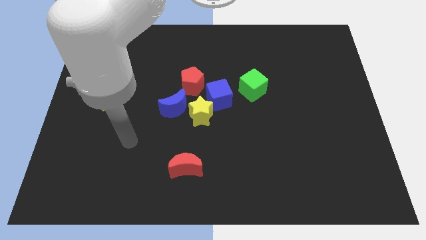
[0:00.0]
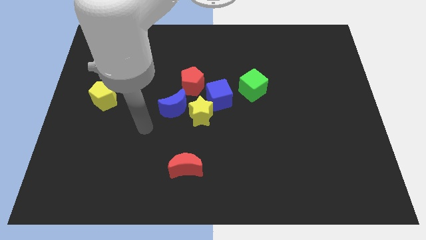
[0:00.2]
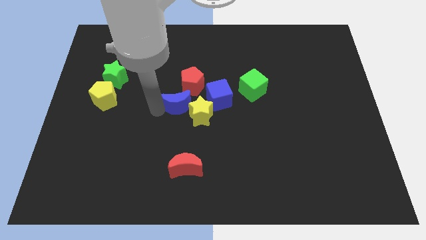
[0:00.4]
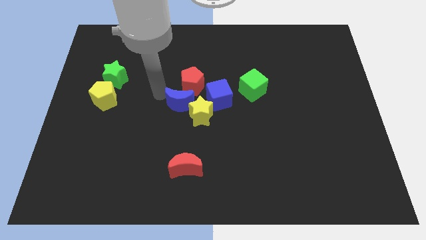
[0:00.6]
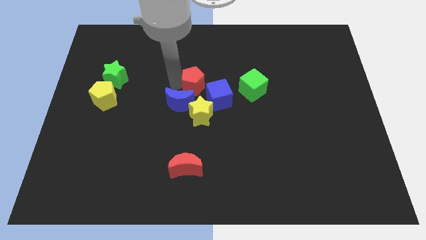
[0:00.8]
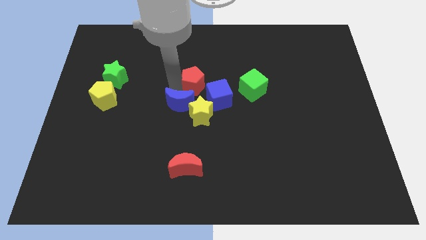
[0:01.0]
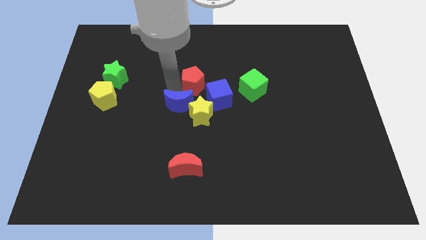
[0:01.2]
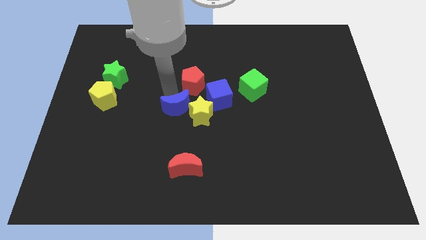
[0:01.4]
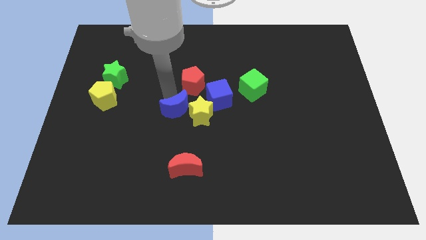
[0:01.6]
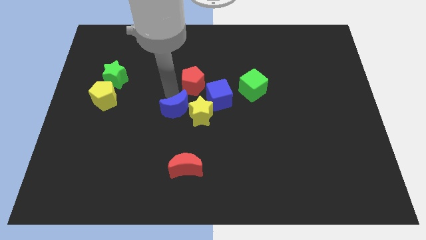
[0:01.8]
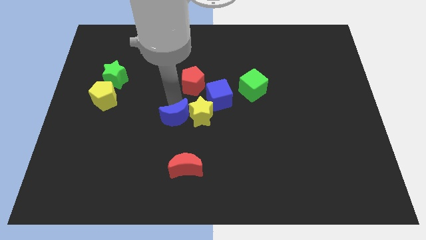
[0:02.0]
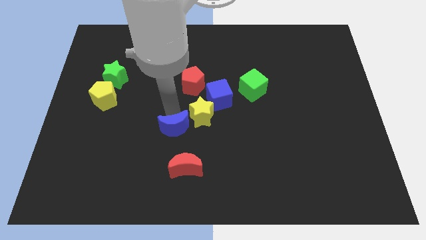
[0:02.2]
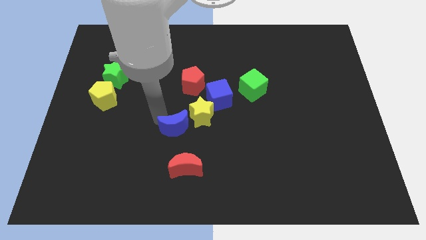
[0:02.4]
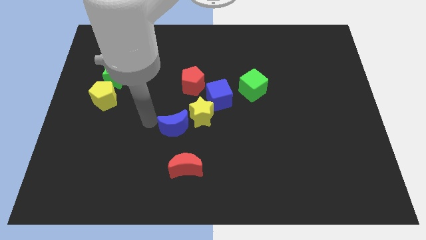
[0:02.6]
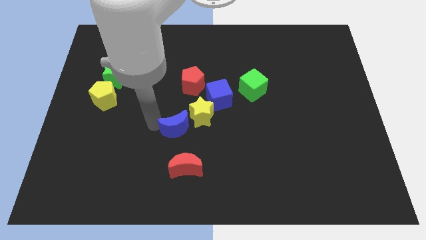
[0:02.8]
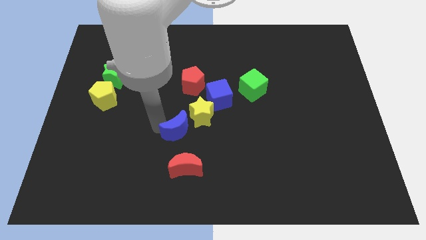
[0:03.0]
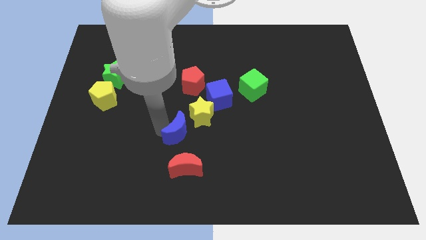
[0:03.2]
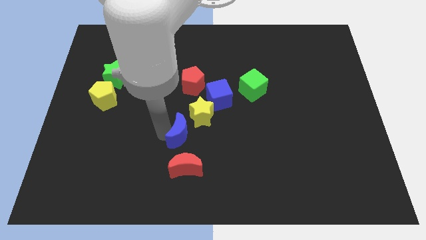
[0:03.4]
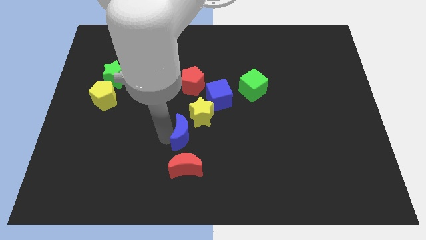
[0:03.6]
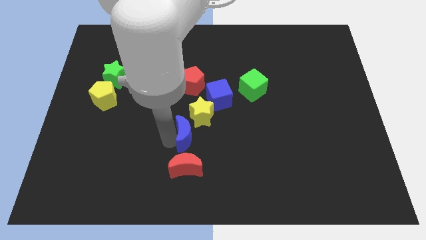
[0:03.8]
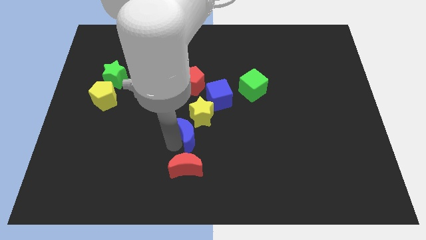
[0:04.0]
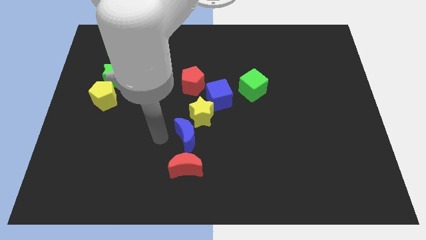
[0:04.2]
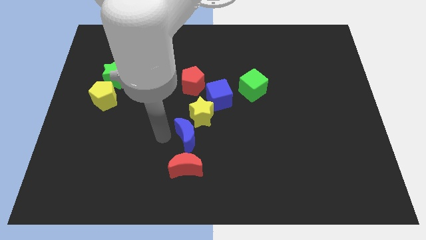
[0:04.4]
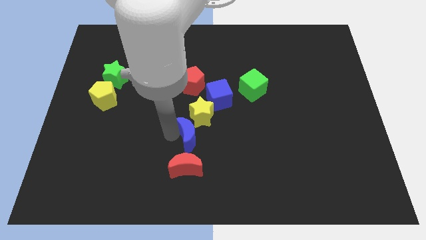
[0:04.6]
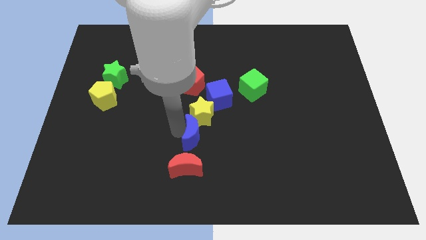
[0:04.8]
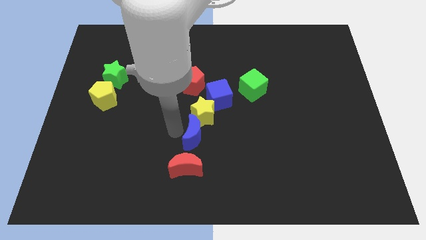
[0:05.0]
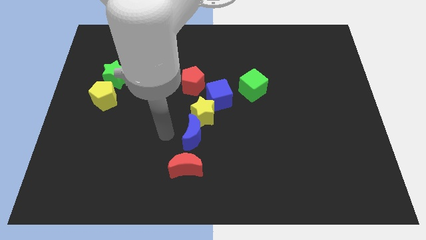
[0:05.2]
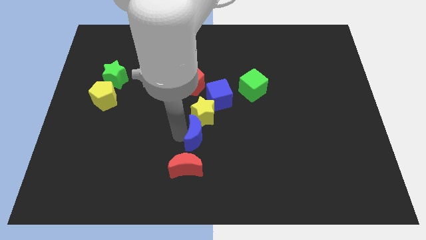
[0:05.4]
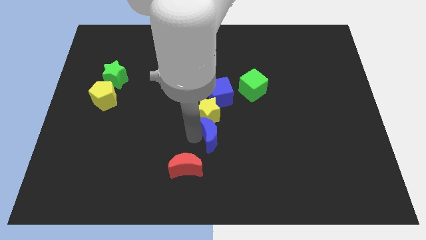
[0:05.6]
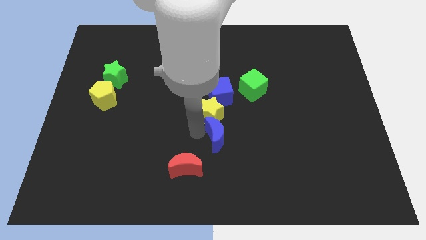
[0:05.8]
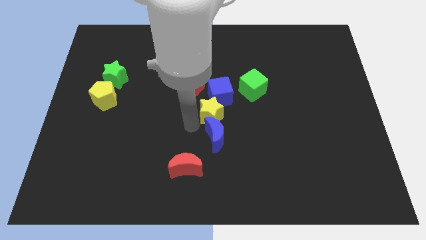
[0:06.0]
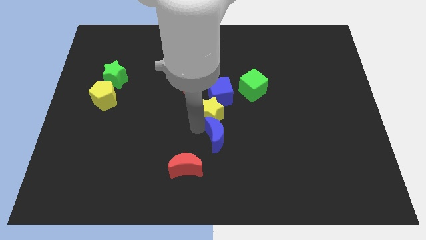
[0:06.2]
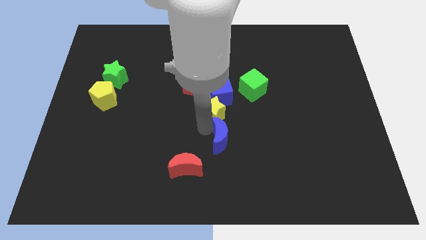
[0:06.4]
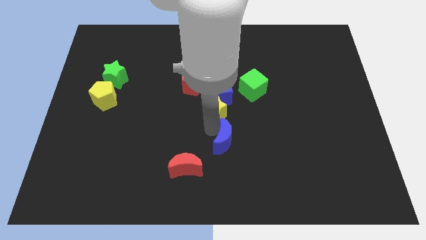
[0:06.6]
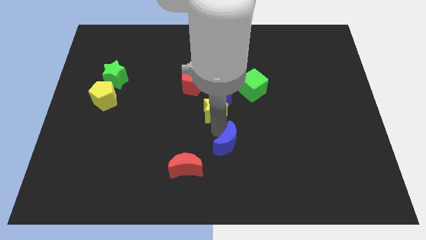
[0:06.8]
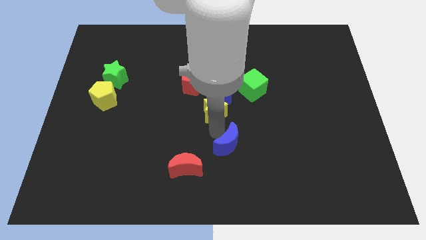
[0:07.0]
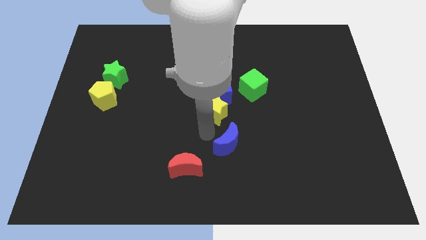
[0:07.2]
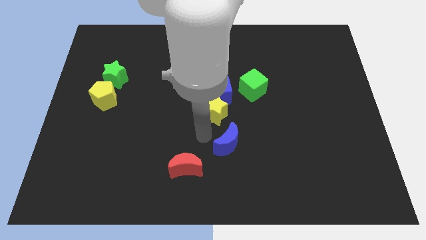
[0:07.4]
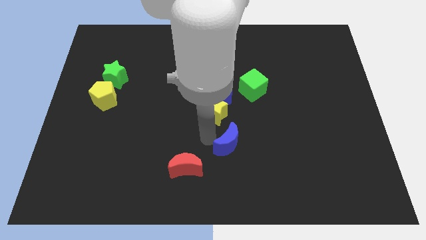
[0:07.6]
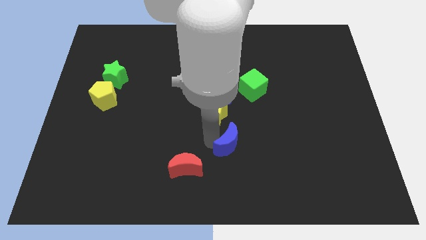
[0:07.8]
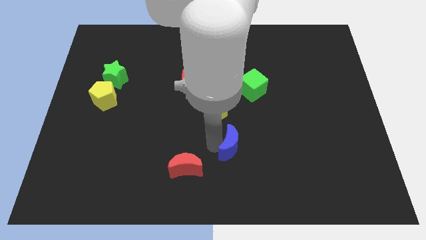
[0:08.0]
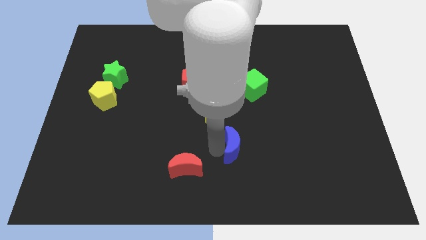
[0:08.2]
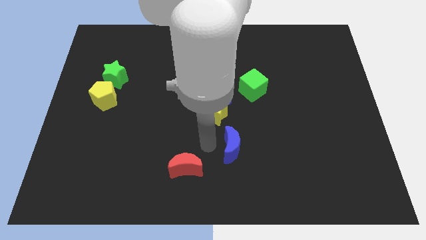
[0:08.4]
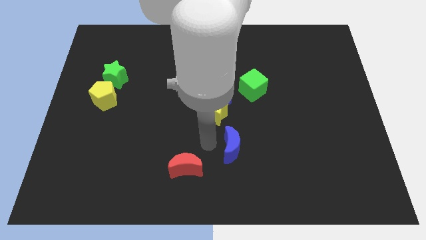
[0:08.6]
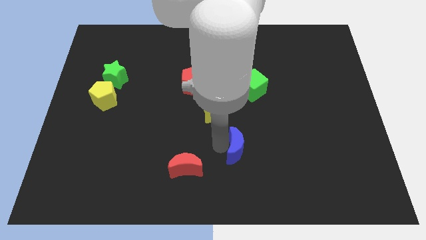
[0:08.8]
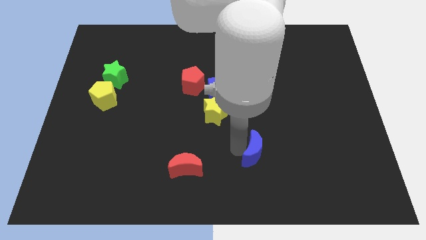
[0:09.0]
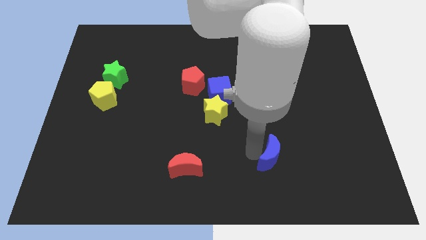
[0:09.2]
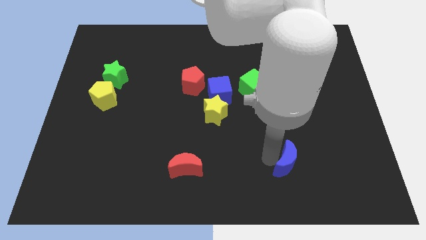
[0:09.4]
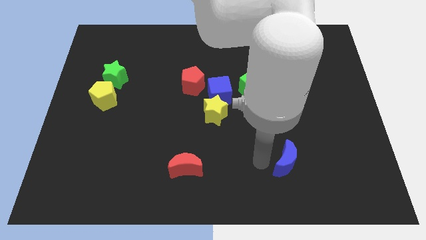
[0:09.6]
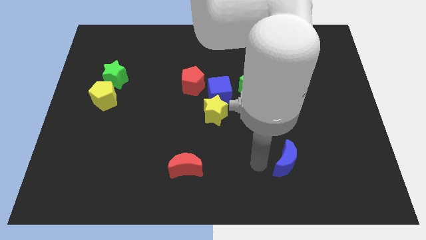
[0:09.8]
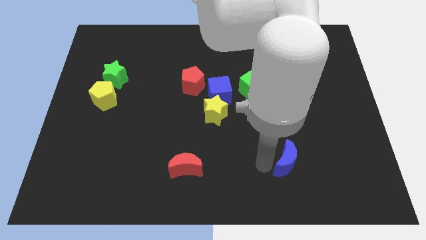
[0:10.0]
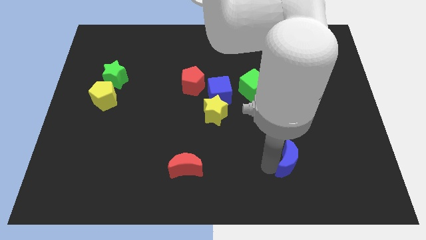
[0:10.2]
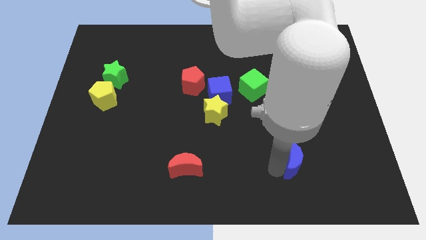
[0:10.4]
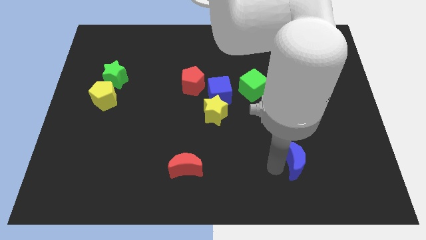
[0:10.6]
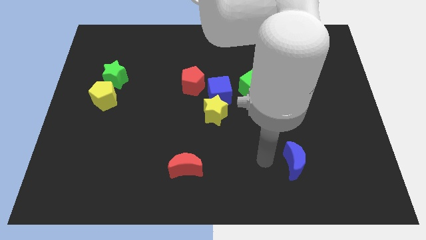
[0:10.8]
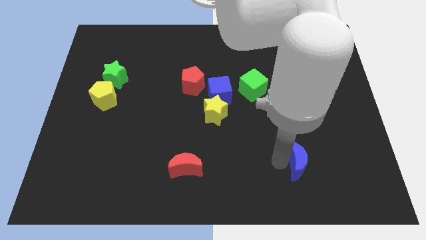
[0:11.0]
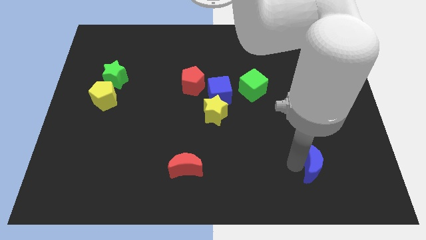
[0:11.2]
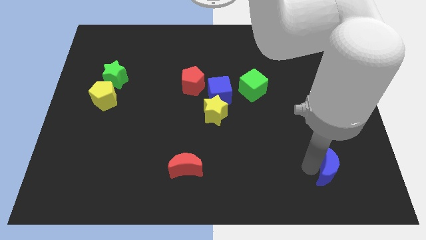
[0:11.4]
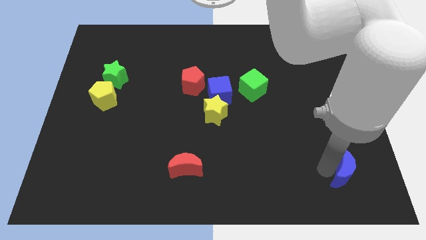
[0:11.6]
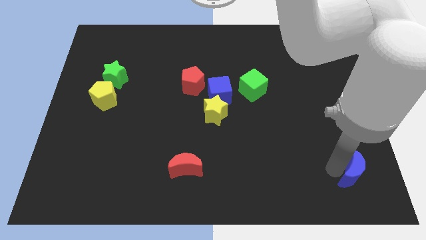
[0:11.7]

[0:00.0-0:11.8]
slide the blue moon to the bottom right

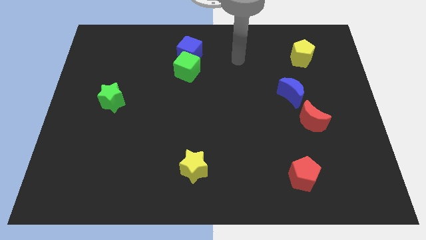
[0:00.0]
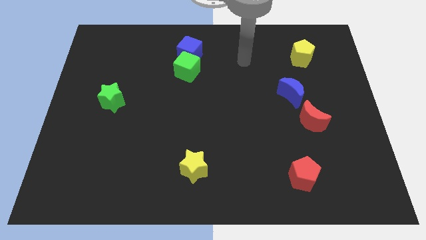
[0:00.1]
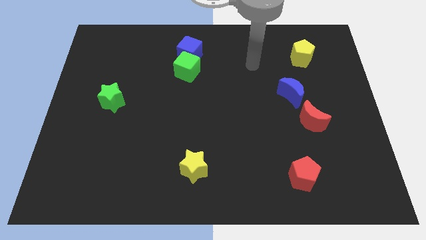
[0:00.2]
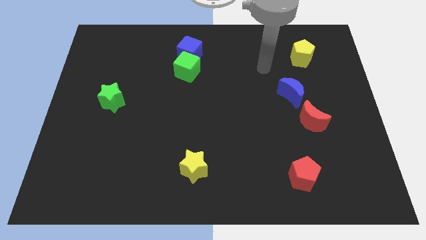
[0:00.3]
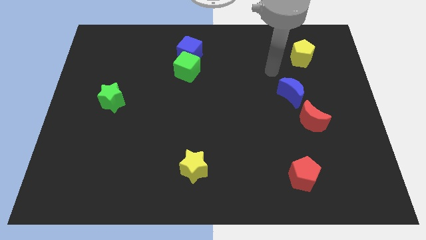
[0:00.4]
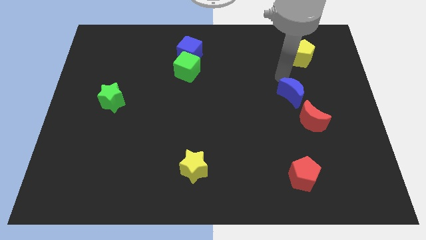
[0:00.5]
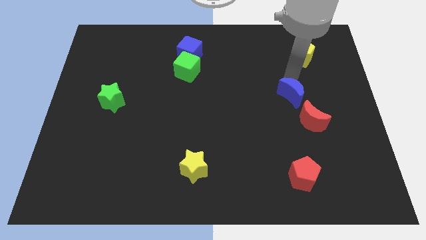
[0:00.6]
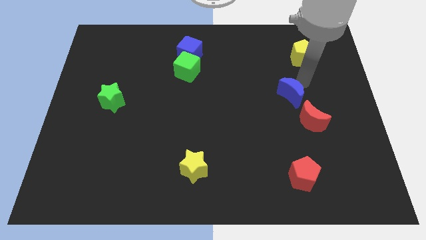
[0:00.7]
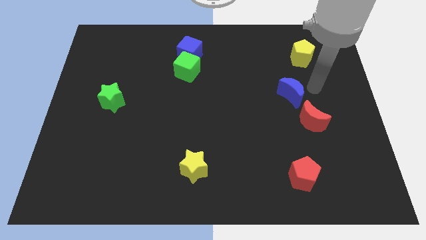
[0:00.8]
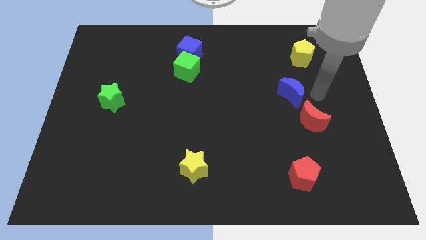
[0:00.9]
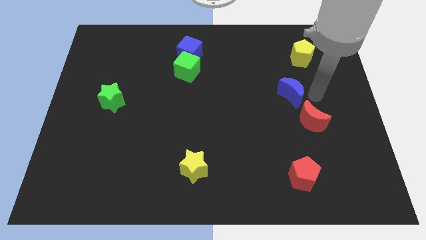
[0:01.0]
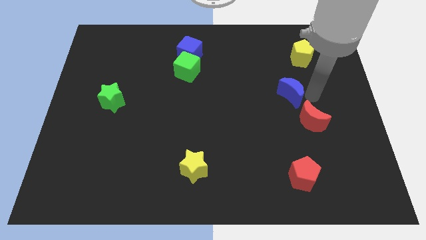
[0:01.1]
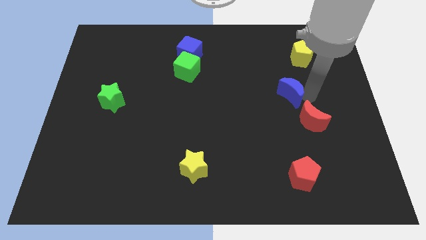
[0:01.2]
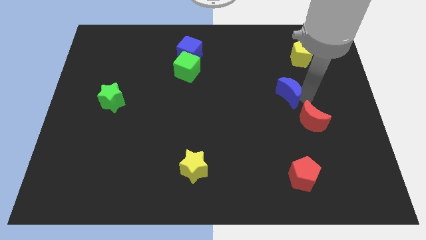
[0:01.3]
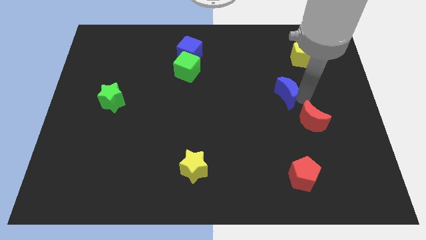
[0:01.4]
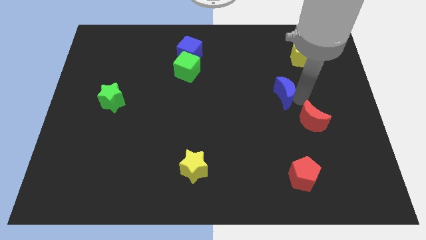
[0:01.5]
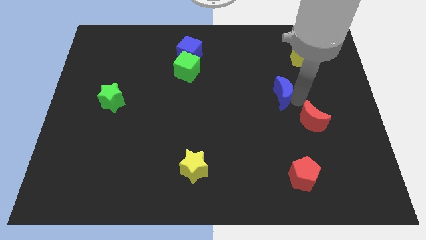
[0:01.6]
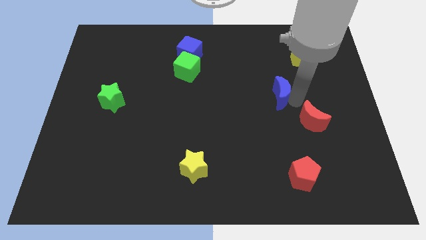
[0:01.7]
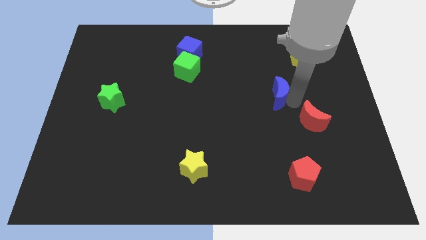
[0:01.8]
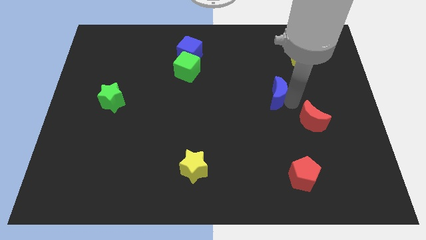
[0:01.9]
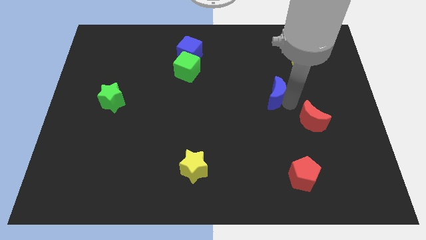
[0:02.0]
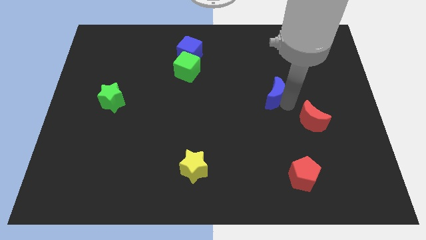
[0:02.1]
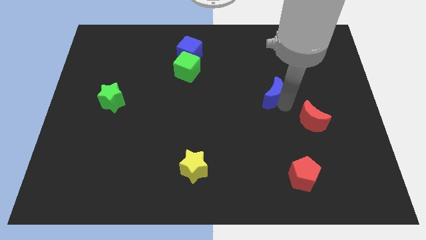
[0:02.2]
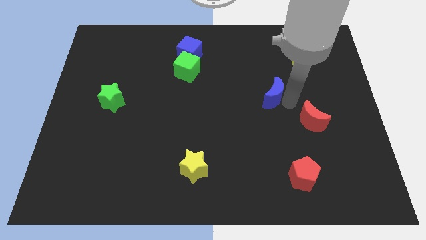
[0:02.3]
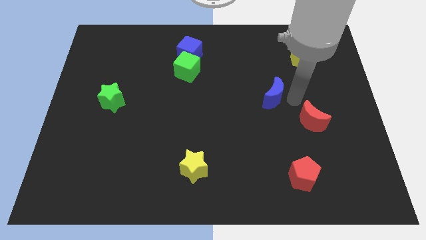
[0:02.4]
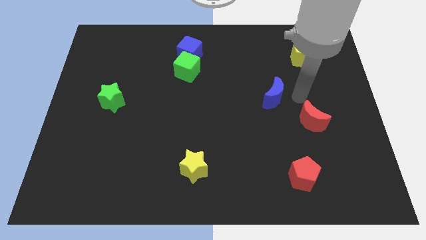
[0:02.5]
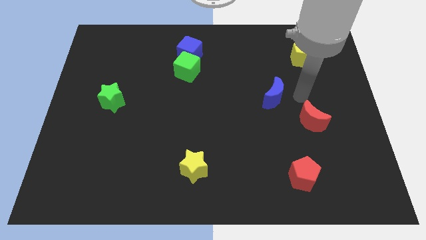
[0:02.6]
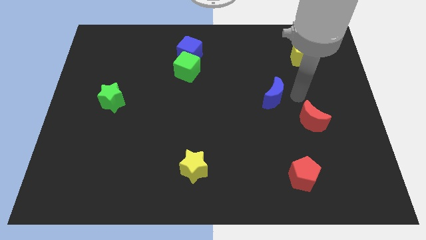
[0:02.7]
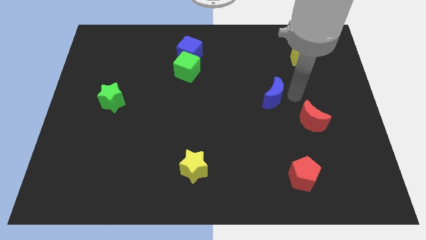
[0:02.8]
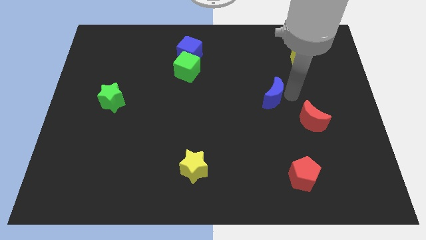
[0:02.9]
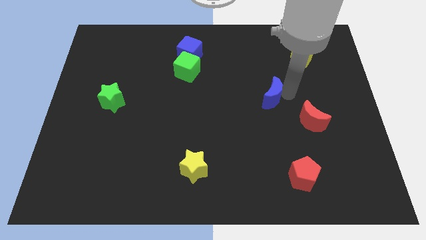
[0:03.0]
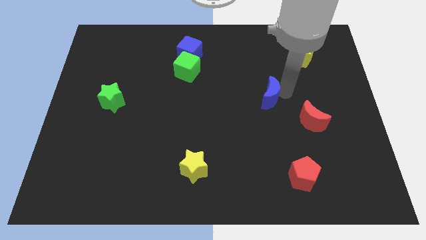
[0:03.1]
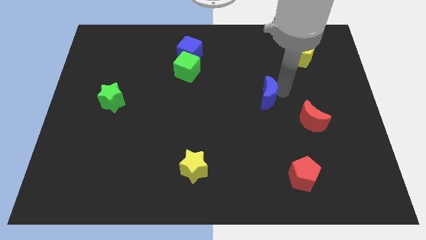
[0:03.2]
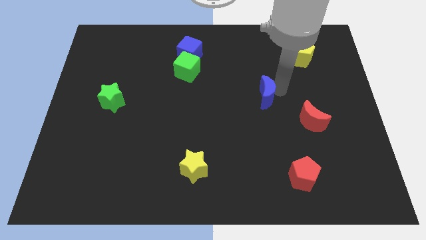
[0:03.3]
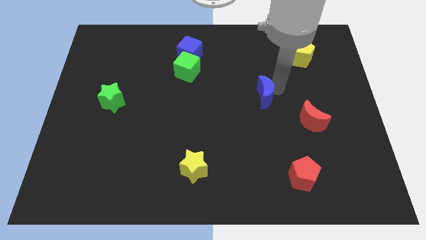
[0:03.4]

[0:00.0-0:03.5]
push the blue moon to the center
